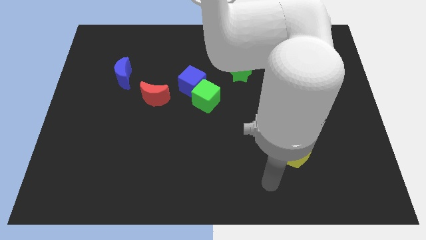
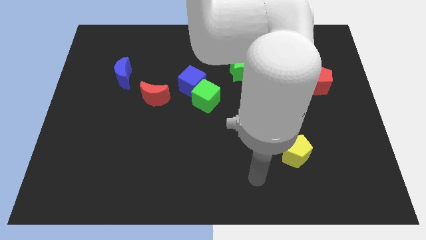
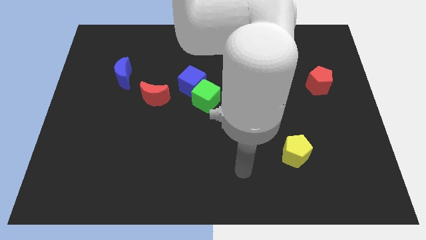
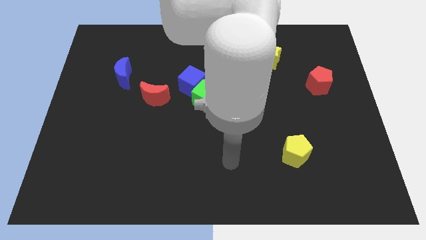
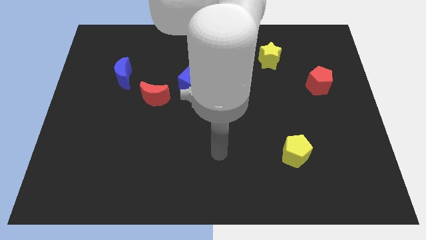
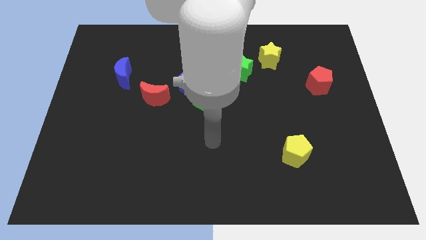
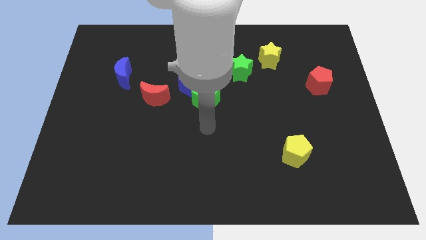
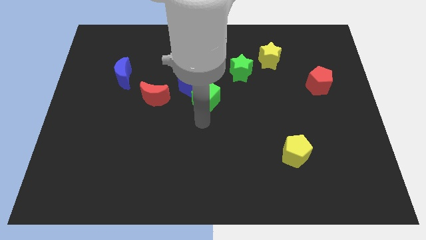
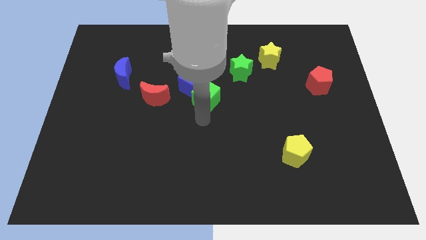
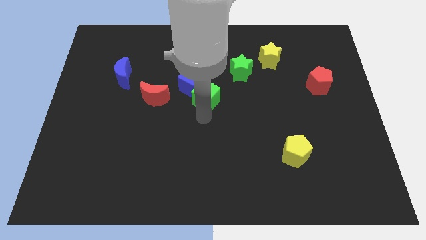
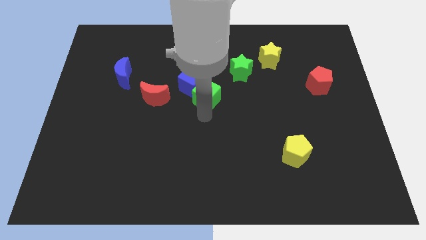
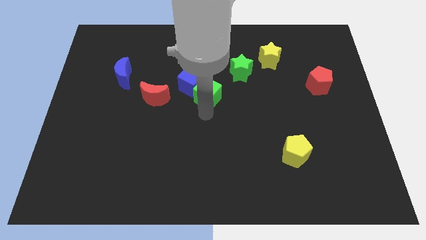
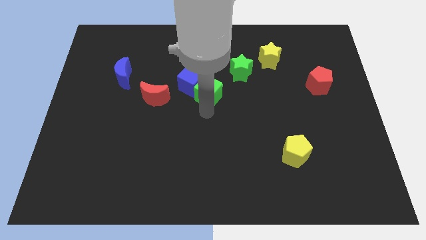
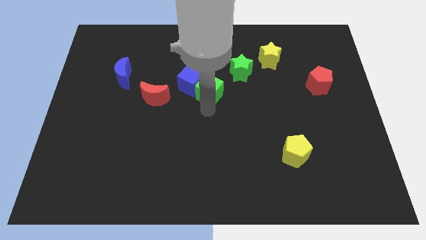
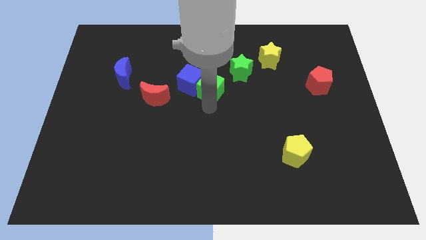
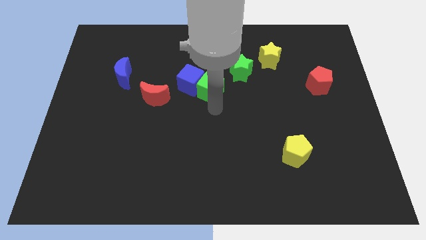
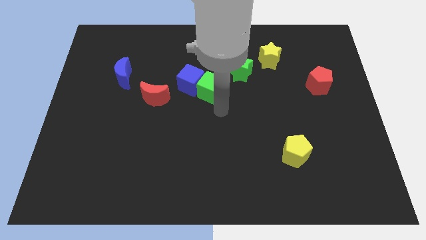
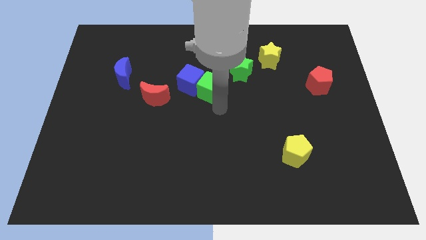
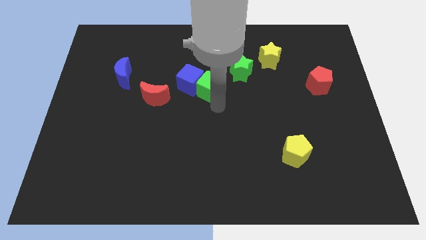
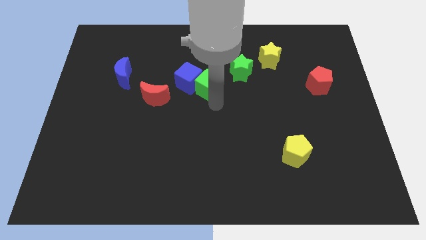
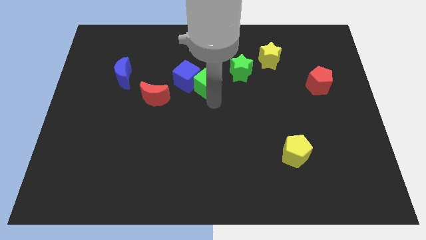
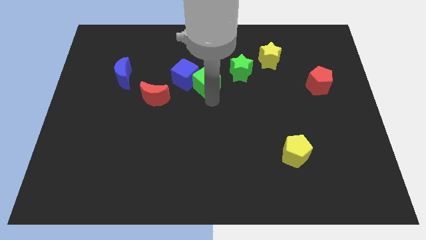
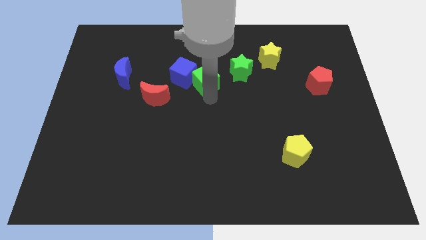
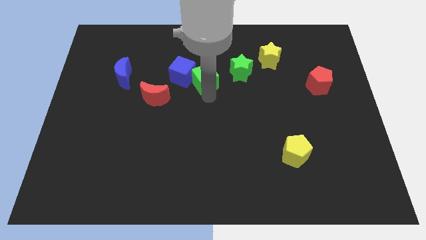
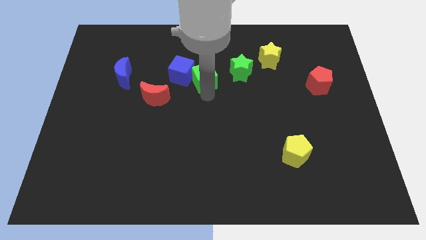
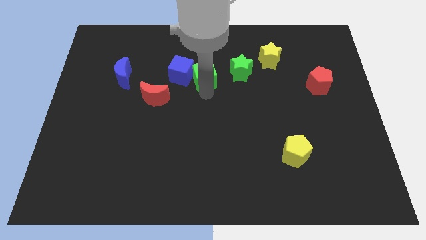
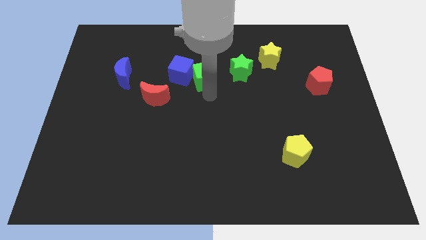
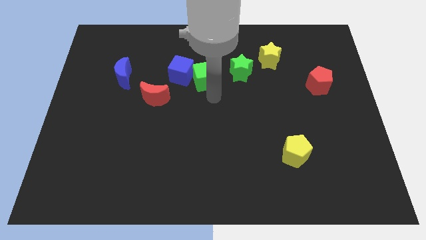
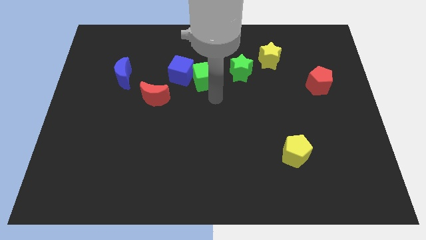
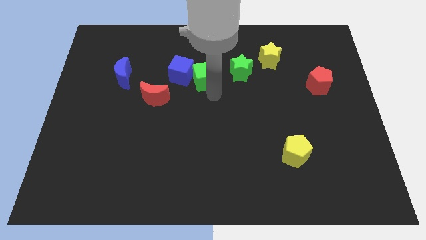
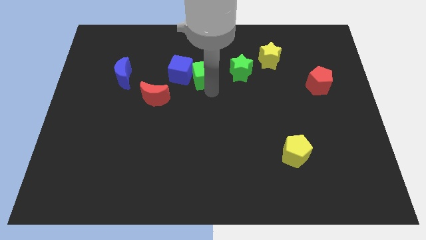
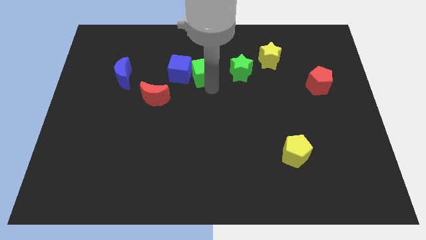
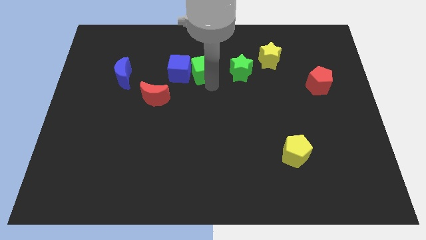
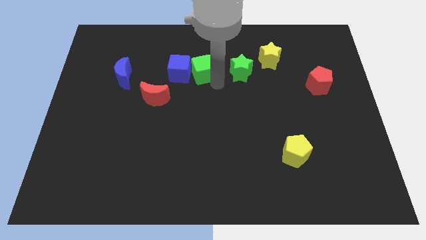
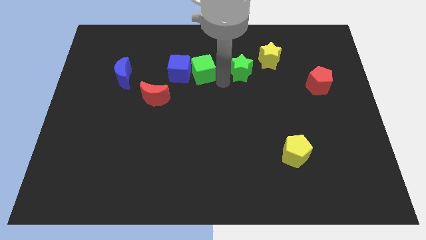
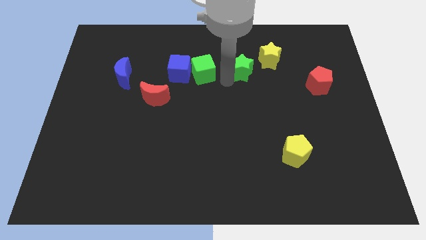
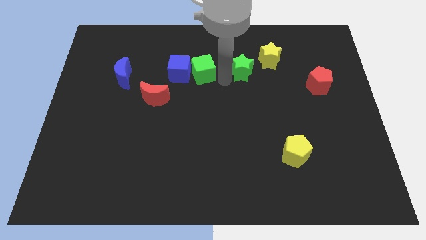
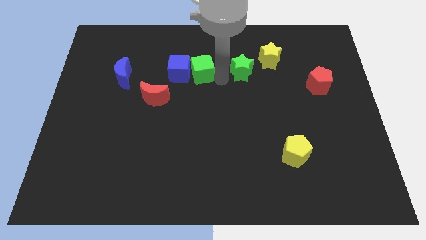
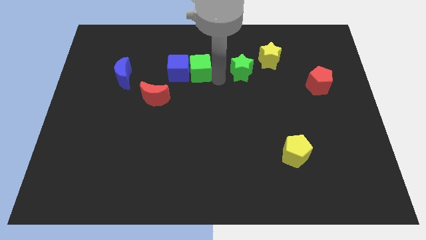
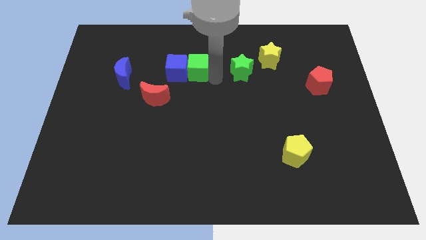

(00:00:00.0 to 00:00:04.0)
slightly slide the green cube diagonally upwards and left

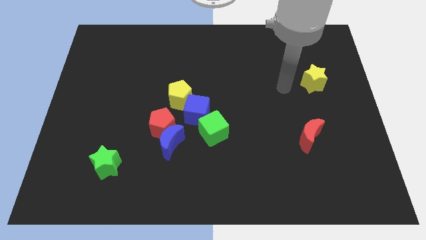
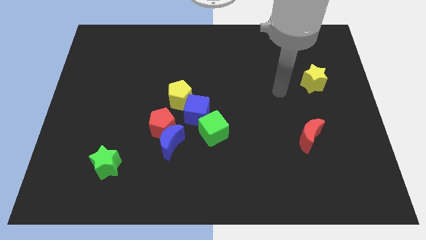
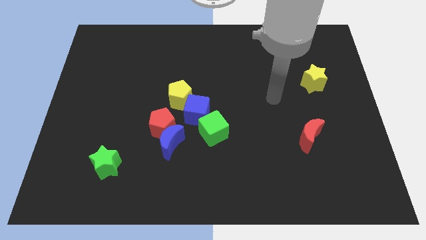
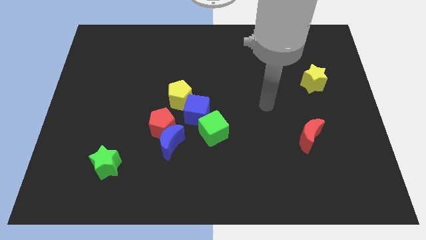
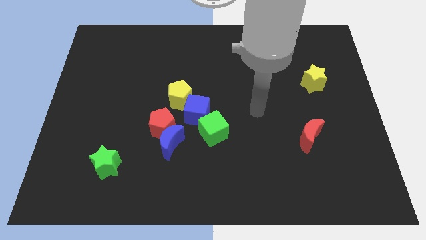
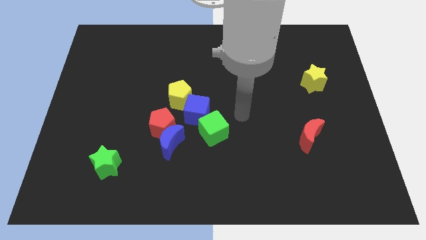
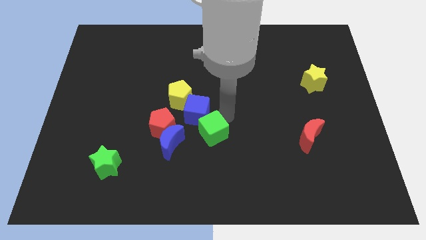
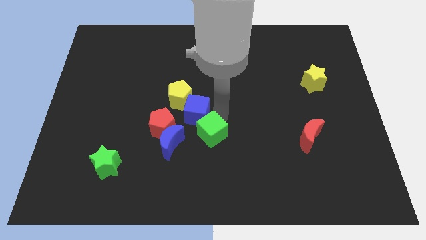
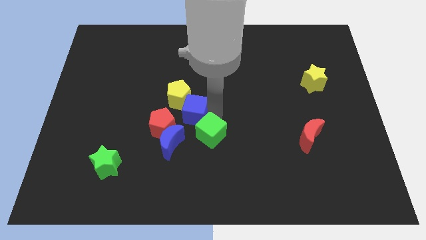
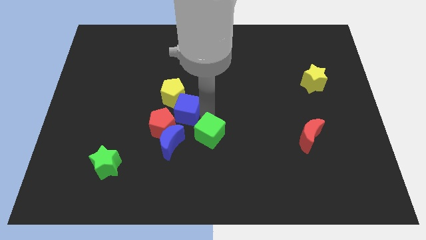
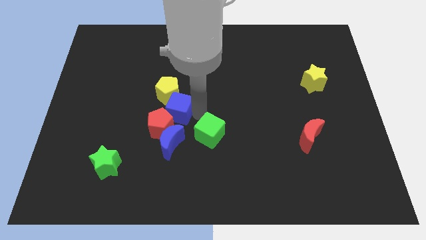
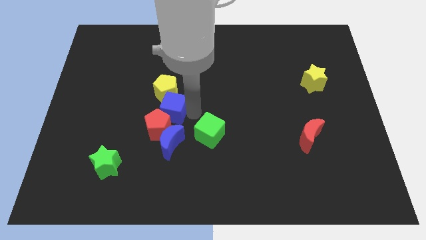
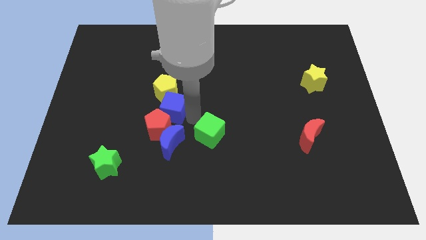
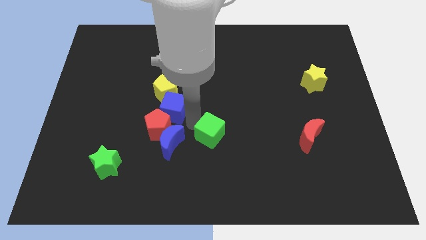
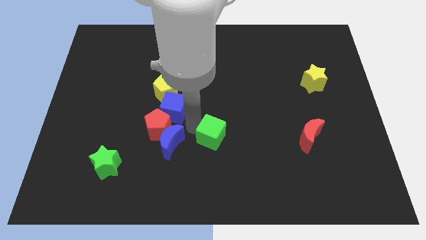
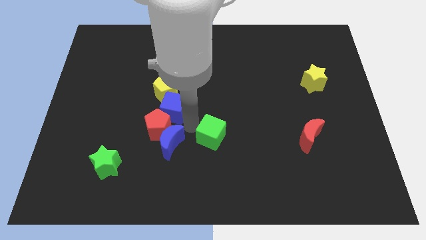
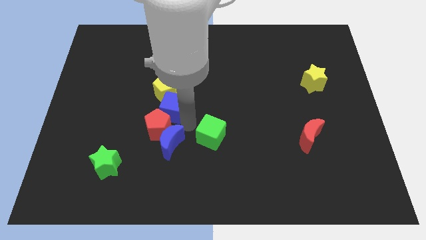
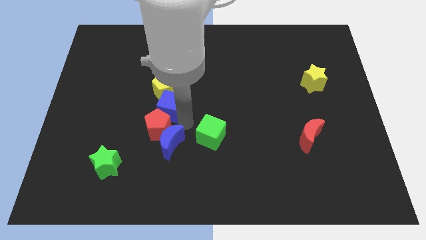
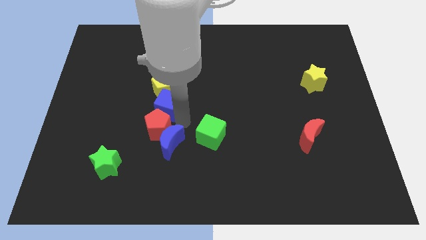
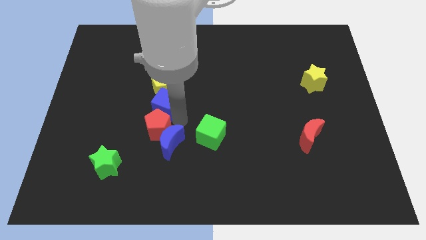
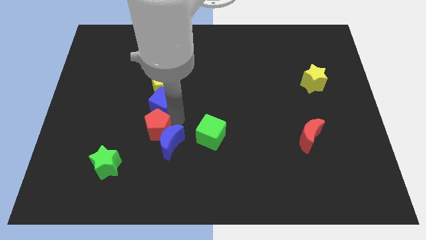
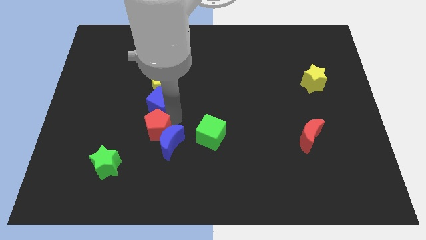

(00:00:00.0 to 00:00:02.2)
slightly push the blue cube diagonally up and left

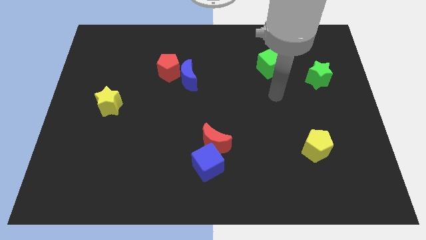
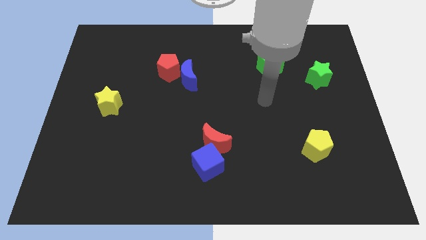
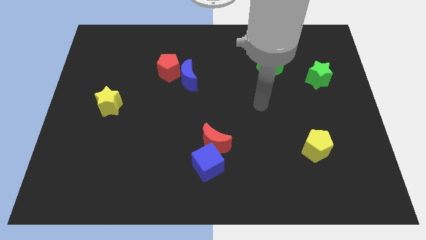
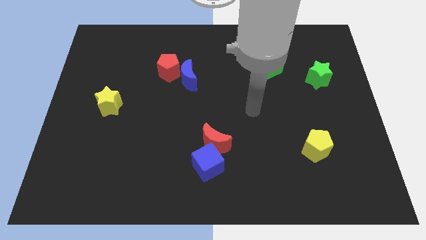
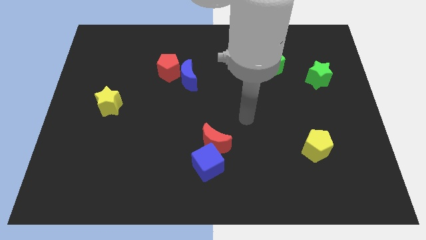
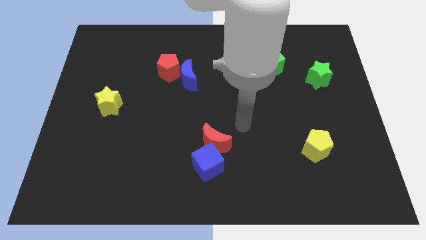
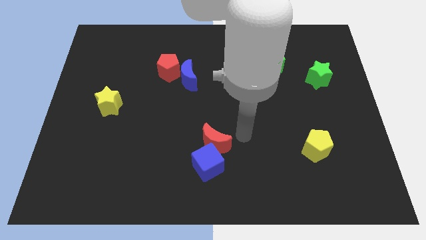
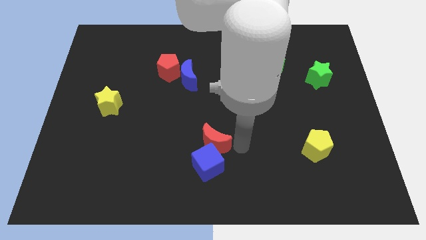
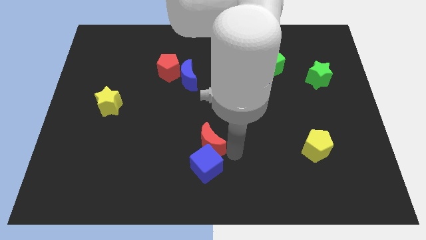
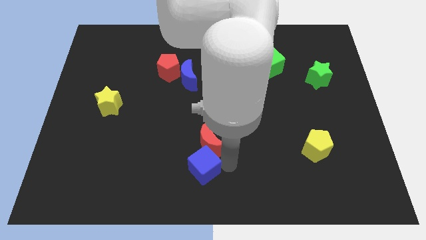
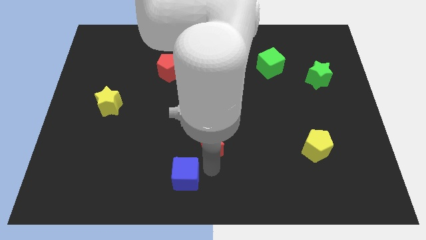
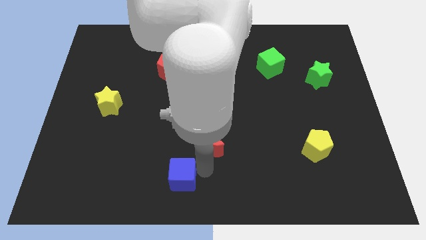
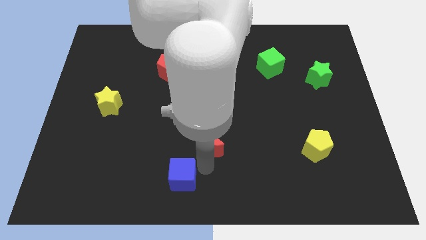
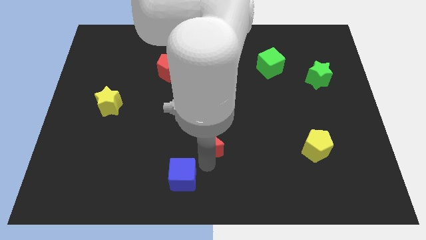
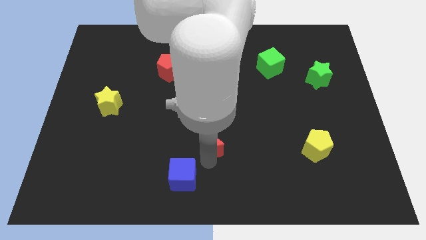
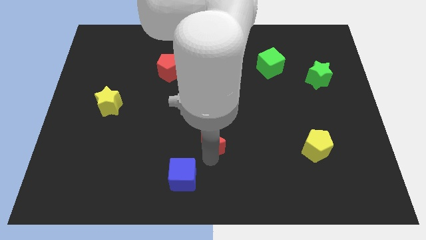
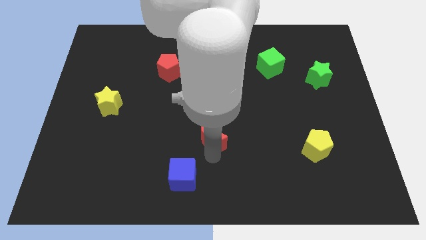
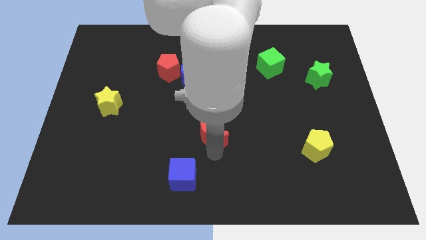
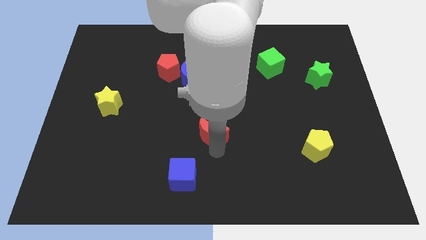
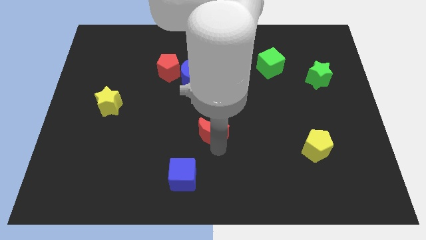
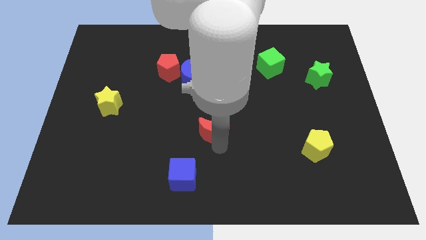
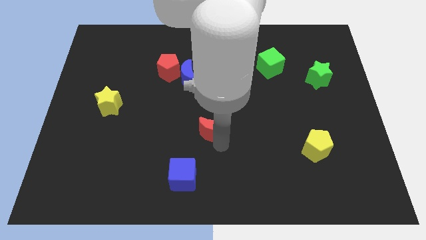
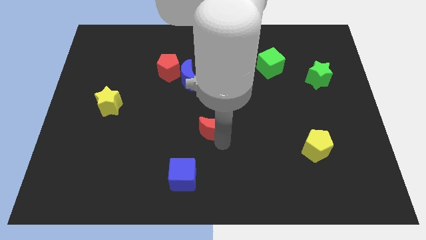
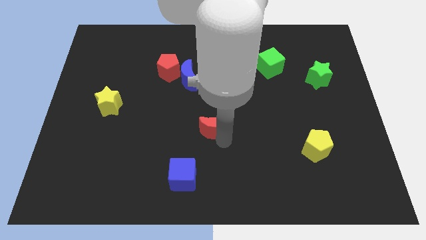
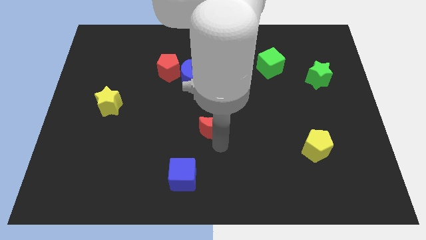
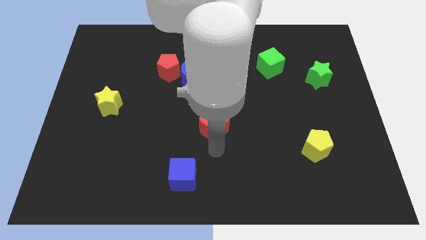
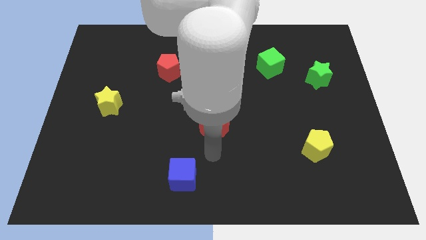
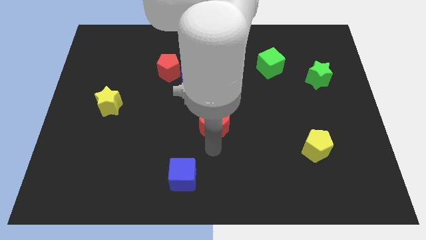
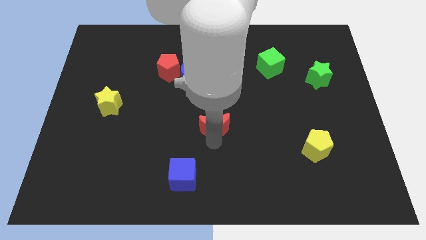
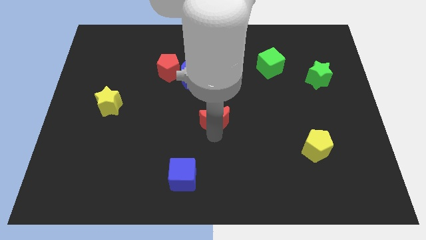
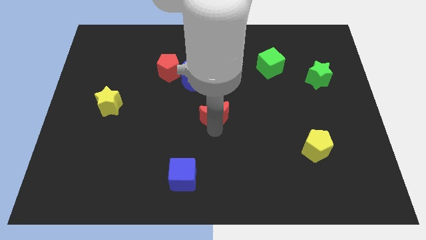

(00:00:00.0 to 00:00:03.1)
slide the red moon upwards somewhat
